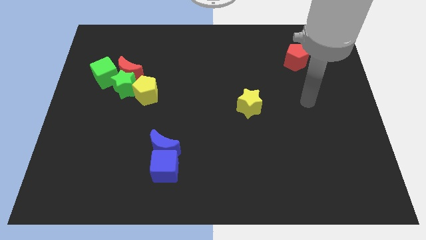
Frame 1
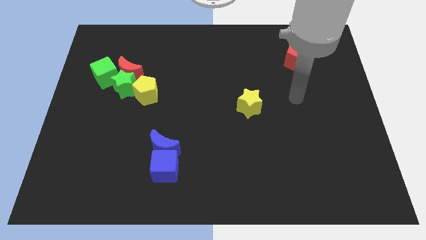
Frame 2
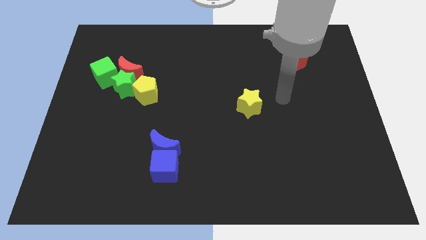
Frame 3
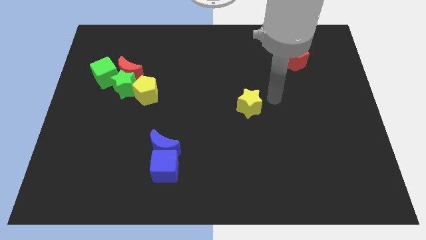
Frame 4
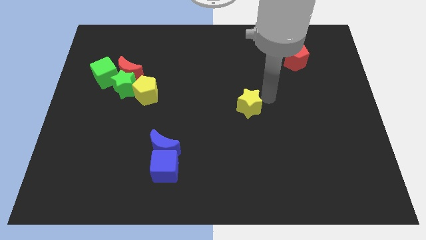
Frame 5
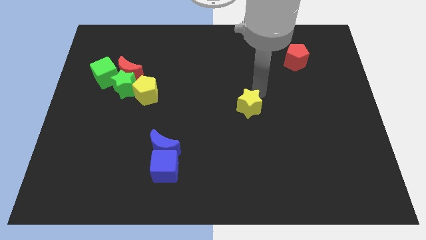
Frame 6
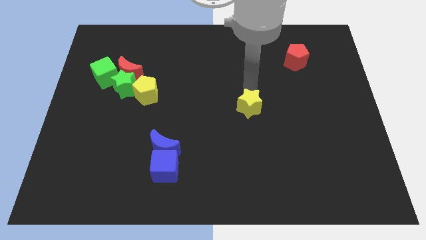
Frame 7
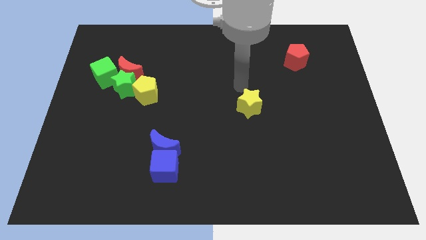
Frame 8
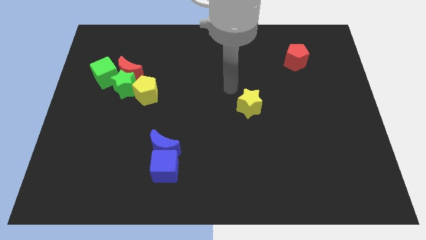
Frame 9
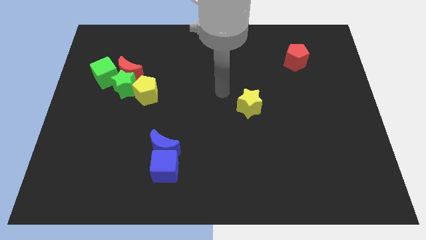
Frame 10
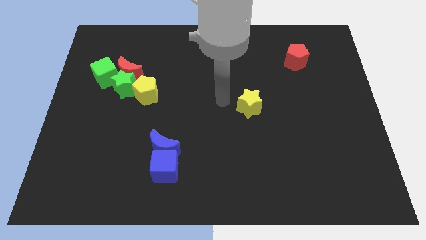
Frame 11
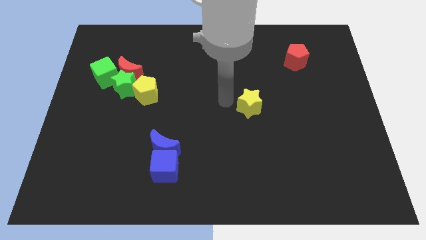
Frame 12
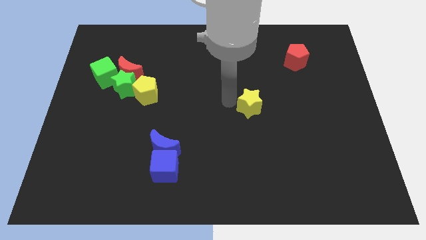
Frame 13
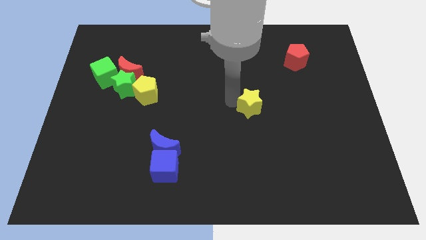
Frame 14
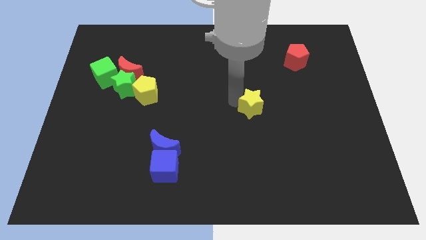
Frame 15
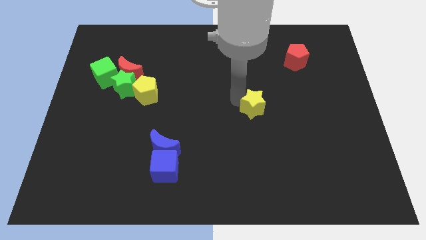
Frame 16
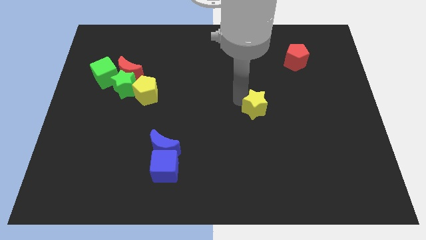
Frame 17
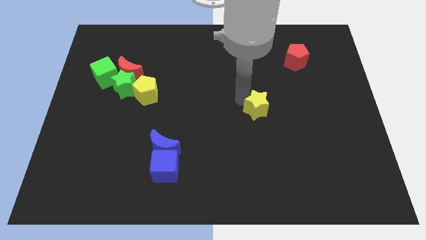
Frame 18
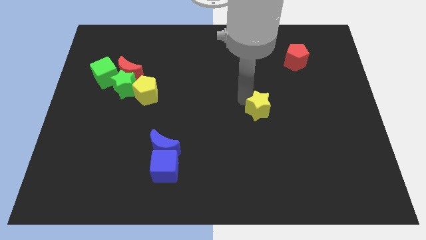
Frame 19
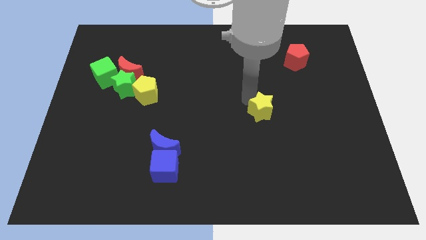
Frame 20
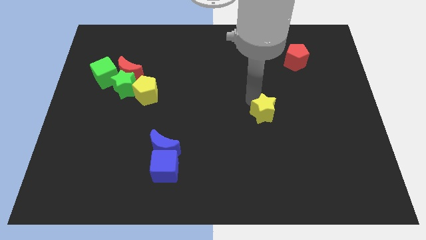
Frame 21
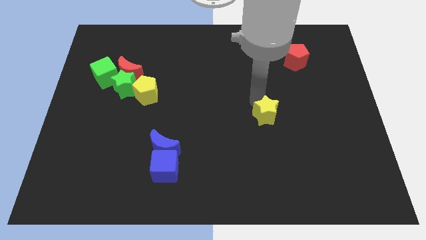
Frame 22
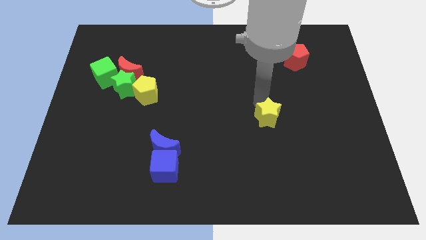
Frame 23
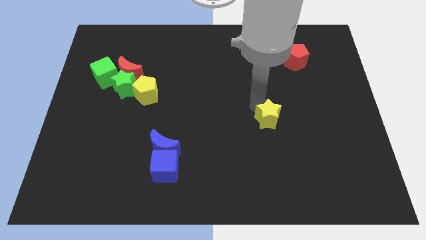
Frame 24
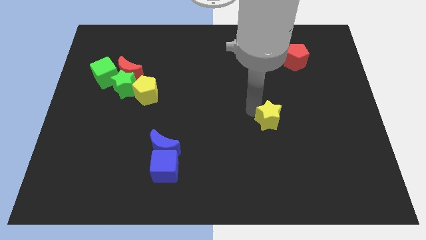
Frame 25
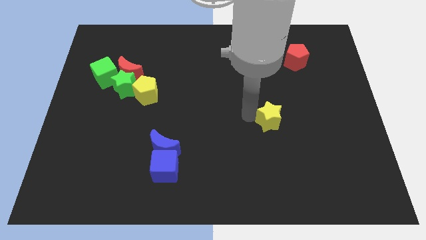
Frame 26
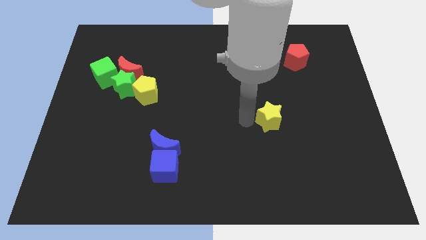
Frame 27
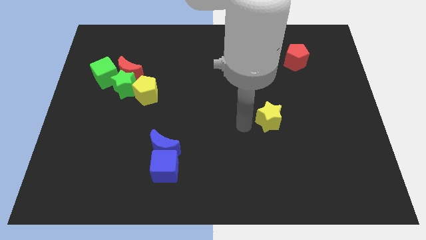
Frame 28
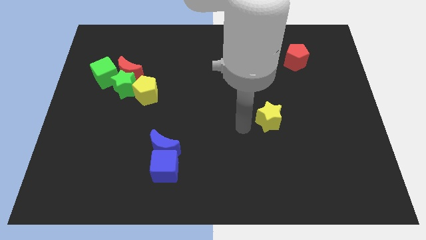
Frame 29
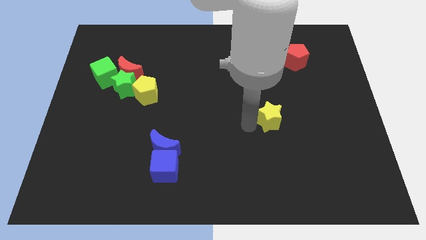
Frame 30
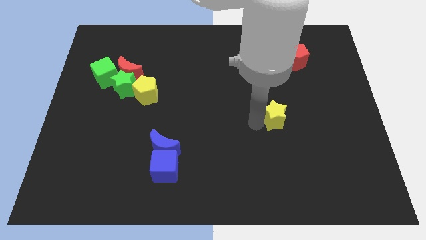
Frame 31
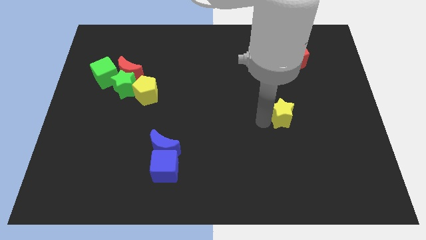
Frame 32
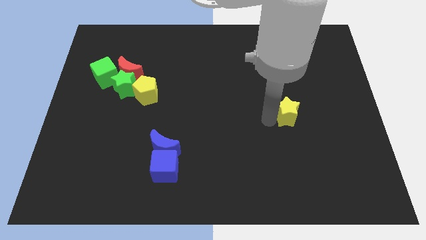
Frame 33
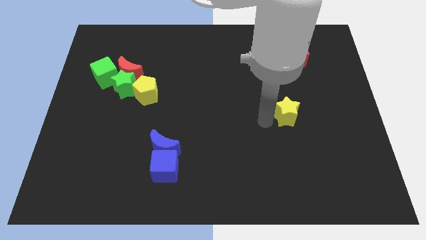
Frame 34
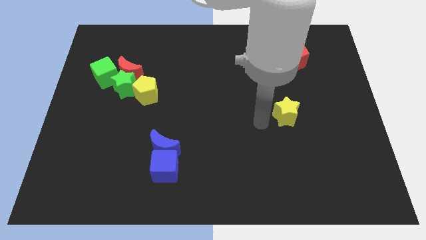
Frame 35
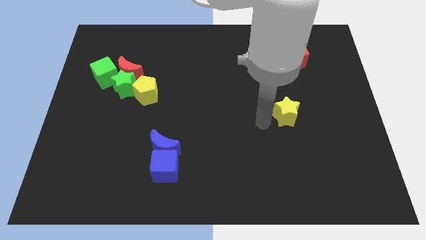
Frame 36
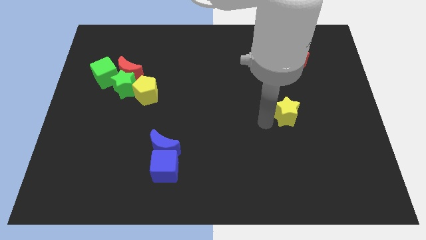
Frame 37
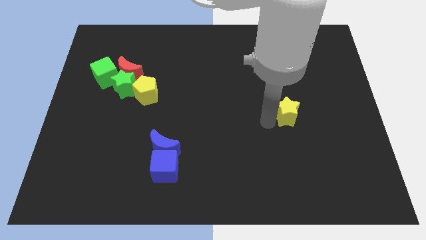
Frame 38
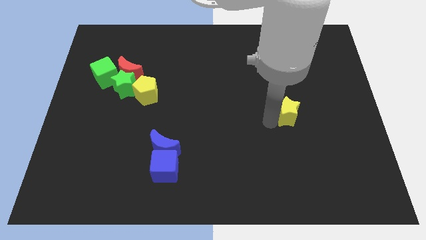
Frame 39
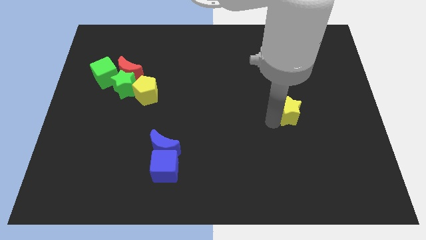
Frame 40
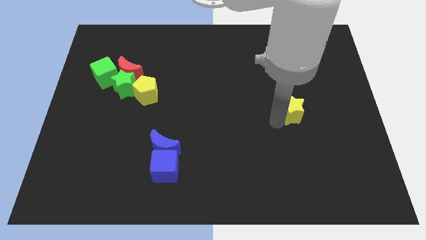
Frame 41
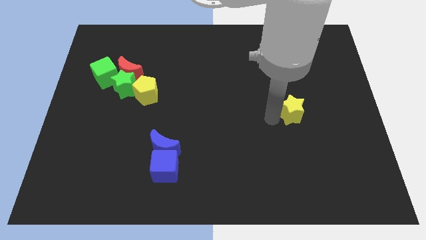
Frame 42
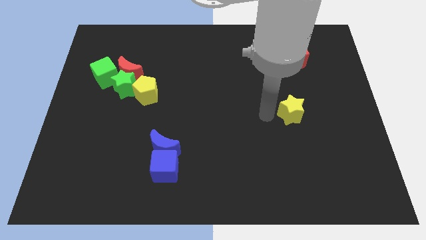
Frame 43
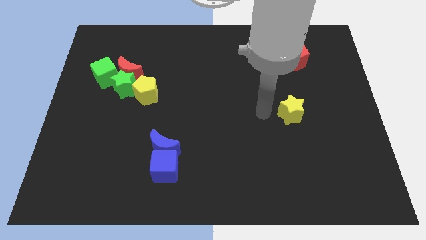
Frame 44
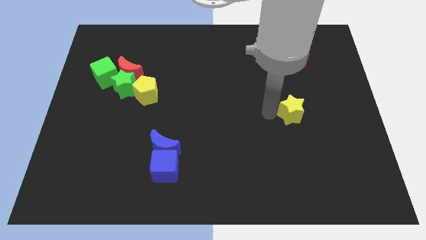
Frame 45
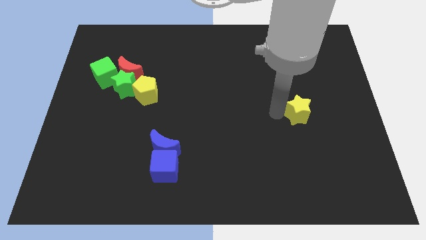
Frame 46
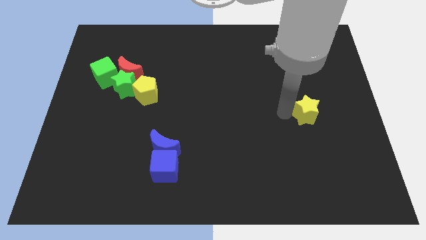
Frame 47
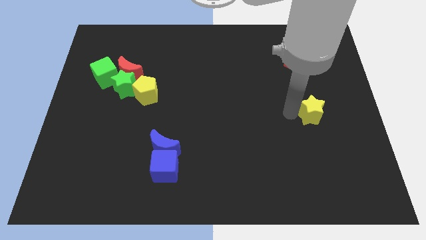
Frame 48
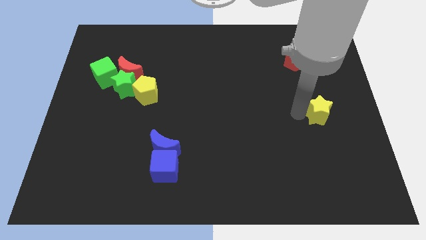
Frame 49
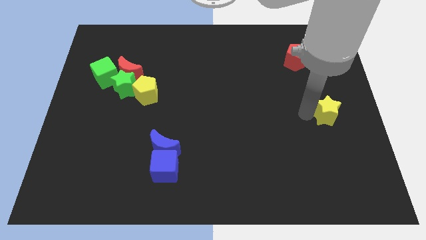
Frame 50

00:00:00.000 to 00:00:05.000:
move the yellow star to the center right

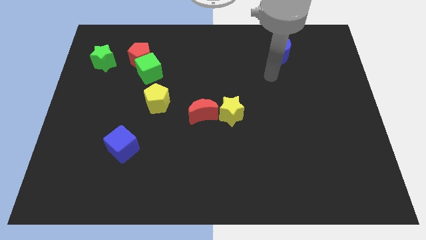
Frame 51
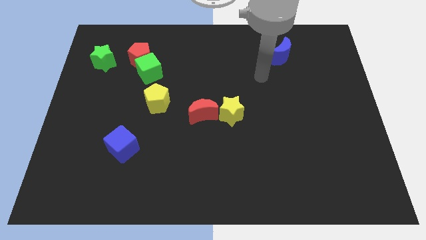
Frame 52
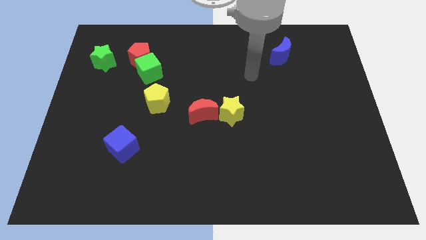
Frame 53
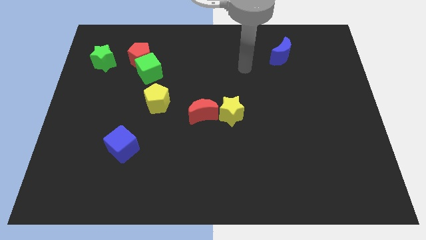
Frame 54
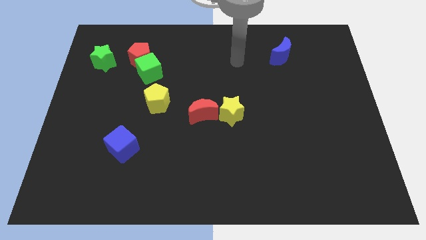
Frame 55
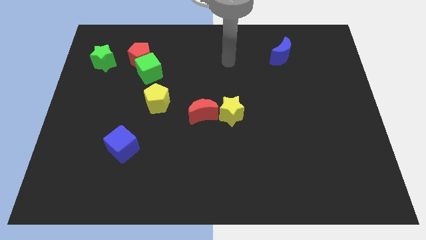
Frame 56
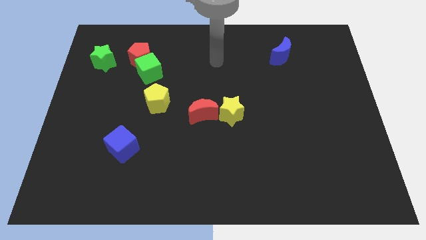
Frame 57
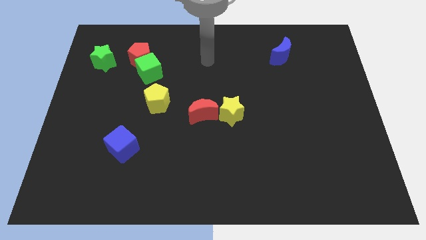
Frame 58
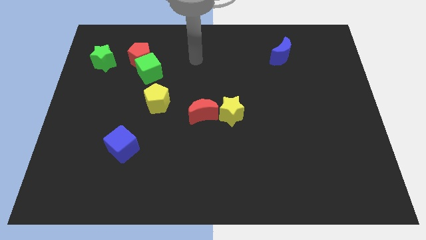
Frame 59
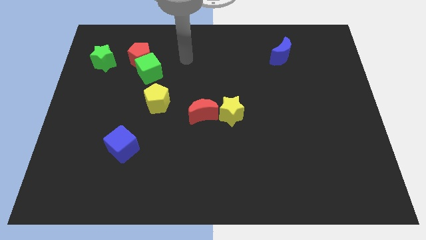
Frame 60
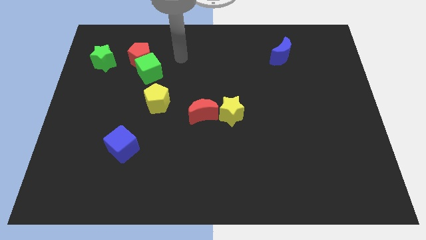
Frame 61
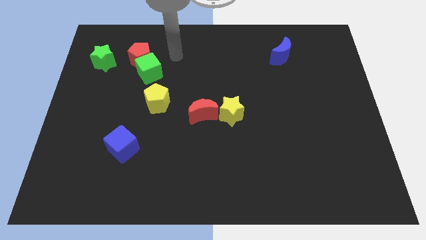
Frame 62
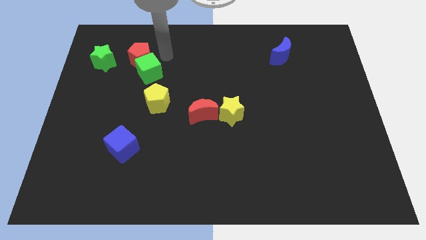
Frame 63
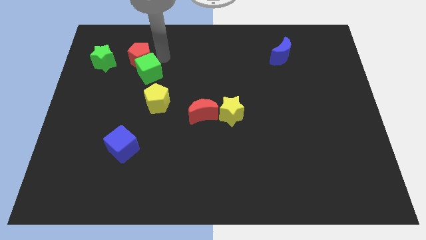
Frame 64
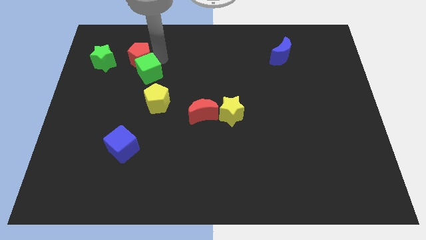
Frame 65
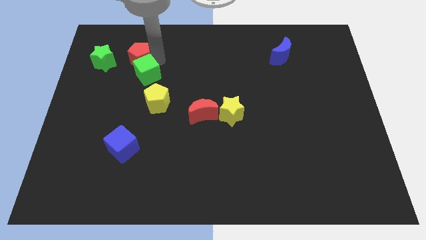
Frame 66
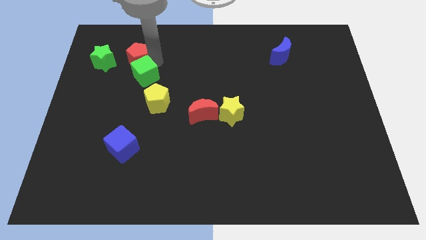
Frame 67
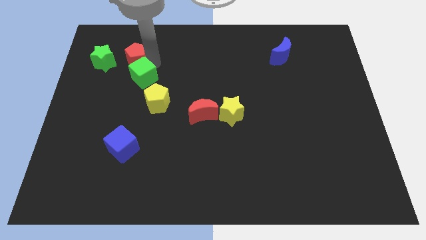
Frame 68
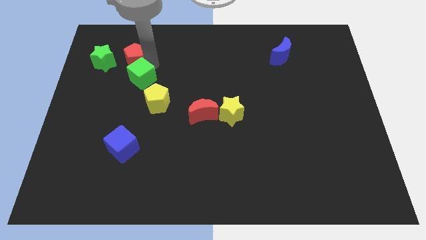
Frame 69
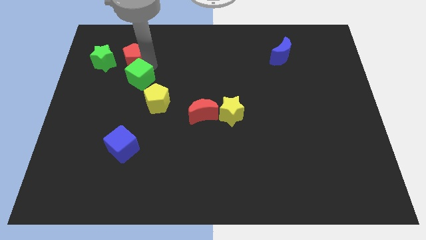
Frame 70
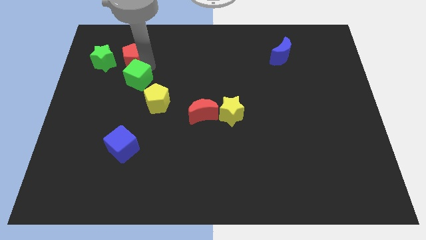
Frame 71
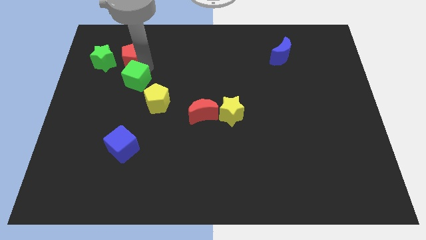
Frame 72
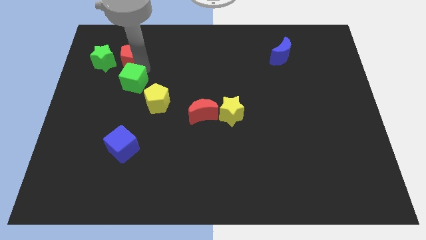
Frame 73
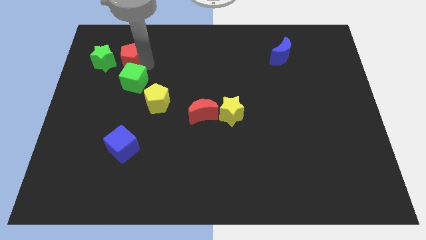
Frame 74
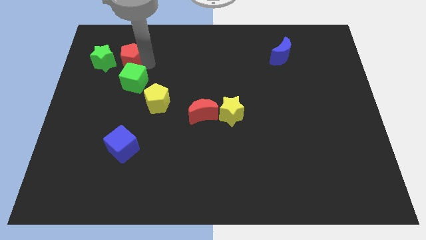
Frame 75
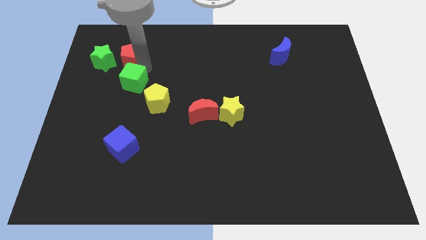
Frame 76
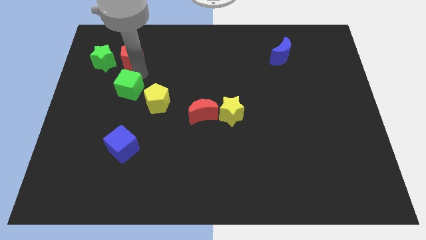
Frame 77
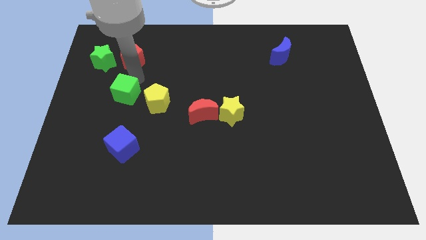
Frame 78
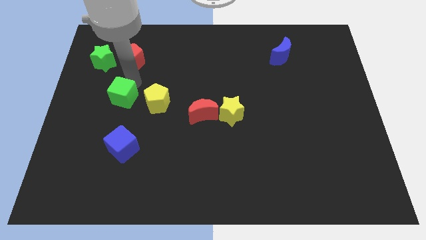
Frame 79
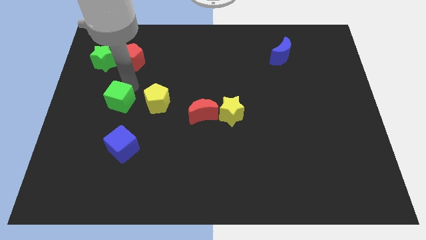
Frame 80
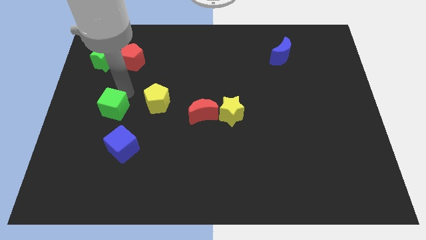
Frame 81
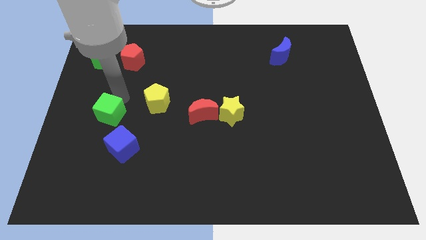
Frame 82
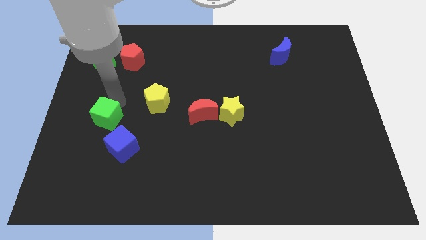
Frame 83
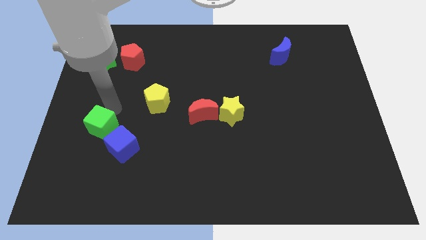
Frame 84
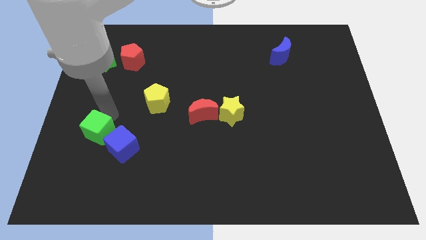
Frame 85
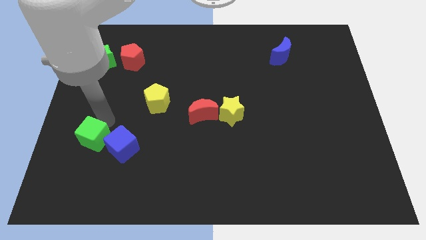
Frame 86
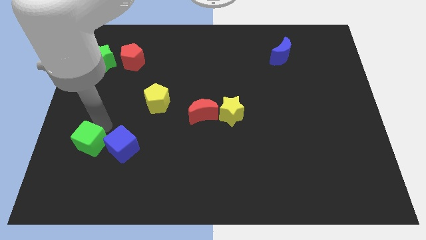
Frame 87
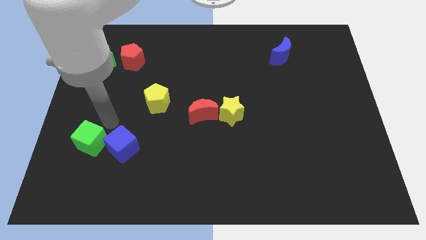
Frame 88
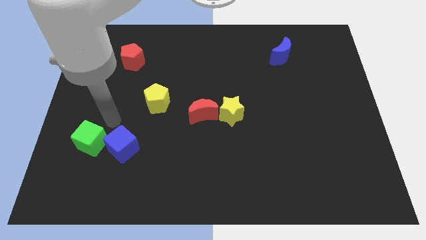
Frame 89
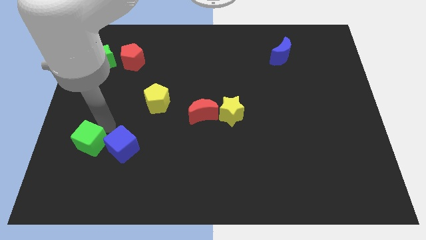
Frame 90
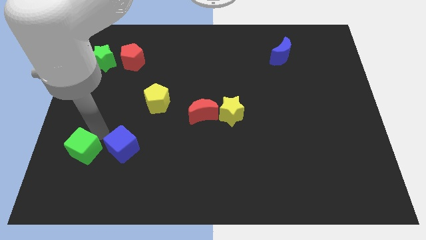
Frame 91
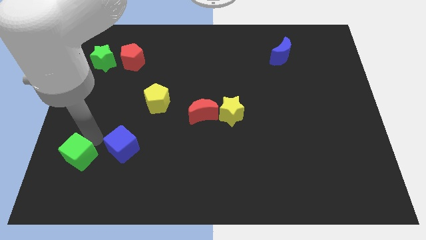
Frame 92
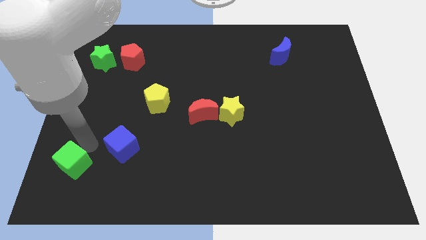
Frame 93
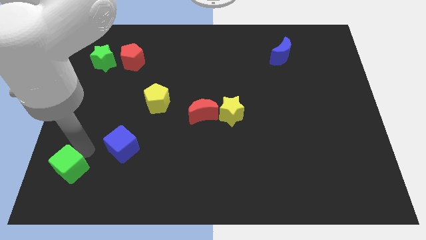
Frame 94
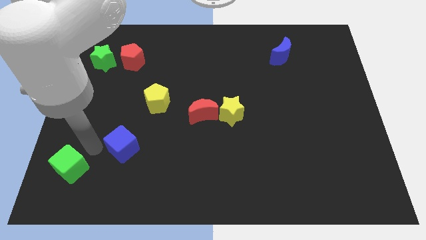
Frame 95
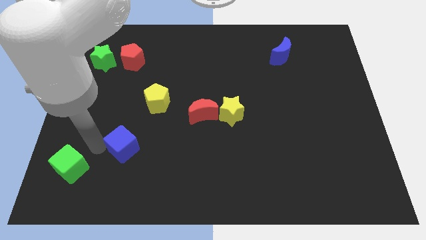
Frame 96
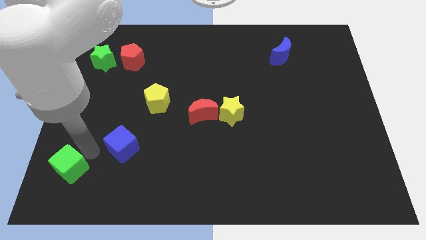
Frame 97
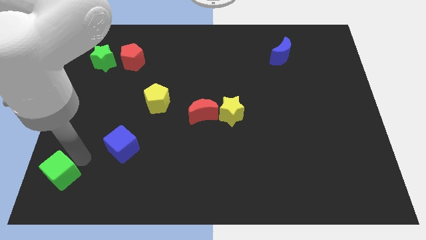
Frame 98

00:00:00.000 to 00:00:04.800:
move the green cube to the lower left corner
